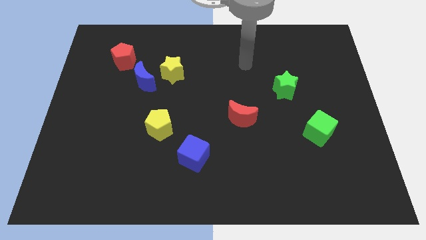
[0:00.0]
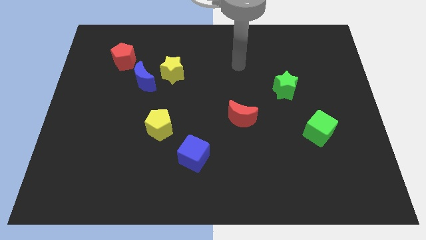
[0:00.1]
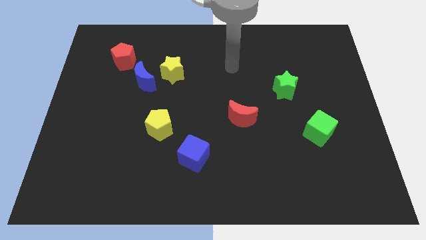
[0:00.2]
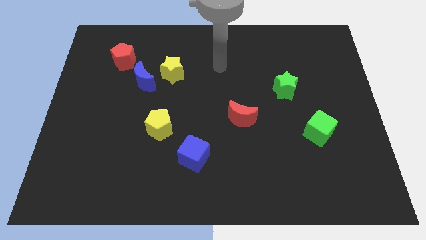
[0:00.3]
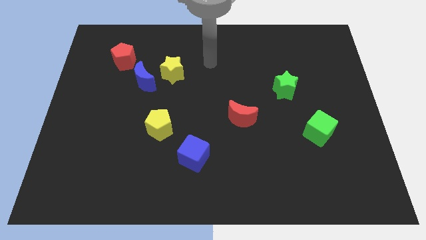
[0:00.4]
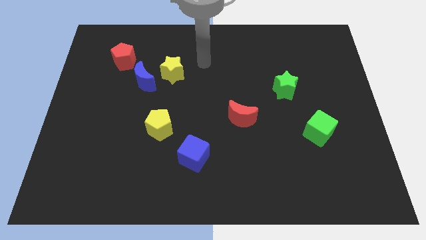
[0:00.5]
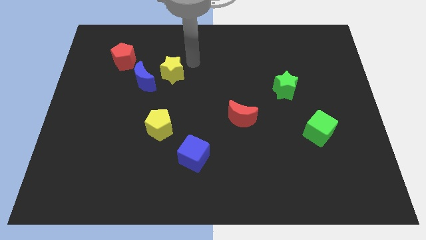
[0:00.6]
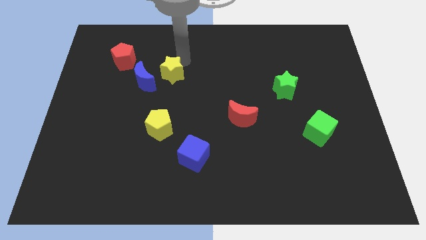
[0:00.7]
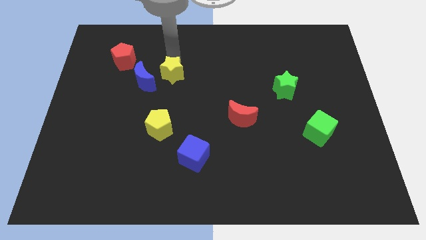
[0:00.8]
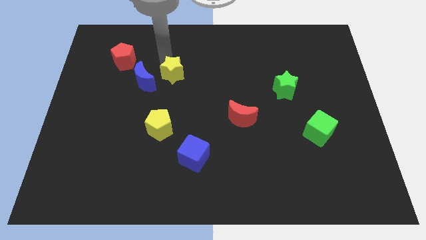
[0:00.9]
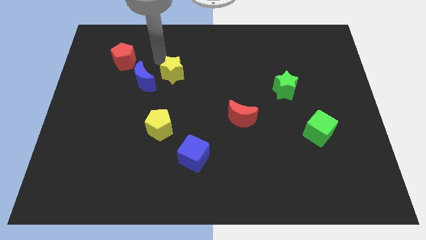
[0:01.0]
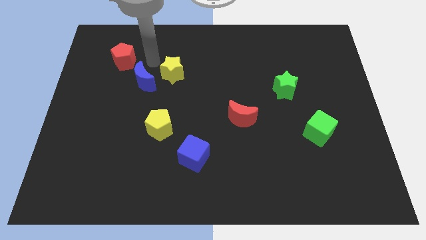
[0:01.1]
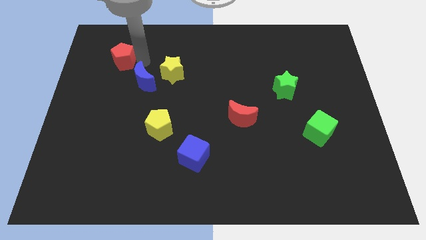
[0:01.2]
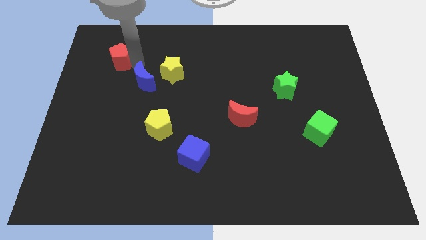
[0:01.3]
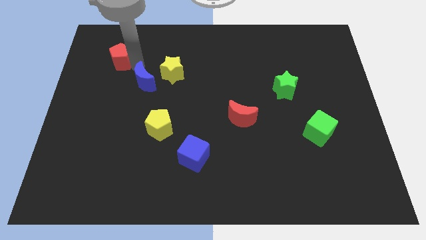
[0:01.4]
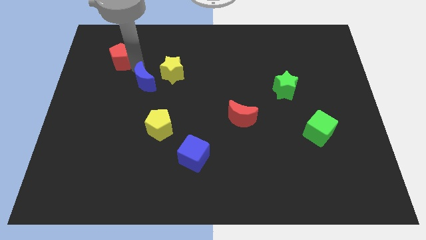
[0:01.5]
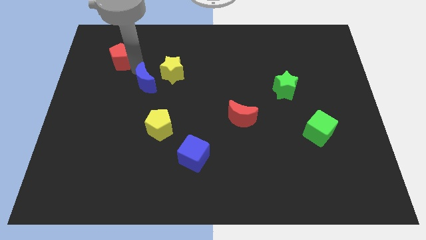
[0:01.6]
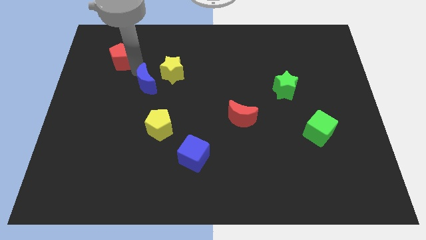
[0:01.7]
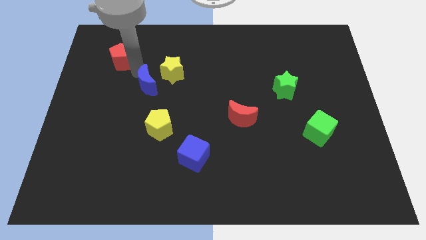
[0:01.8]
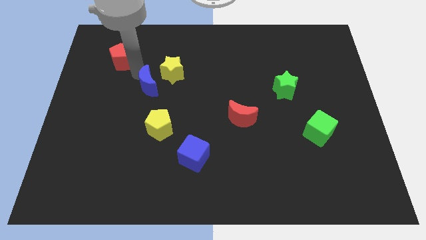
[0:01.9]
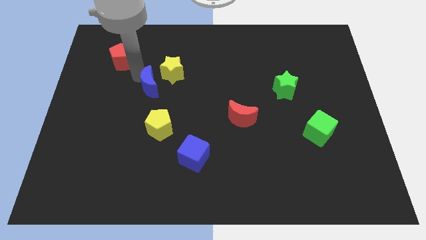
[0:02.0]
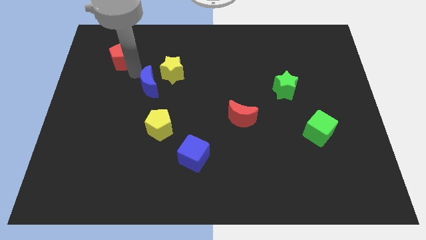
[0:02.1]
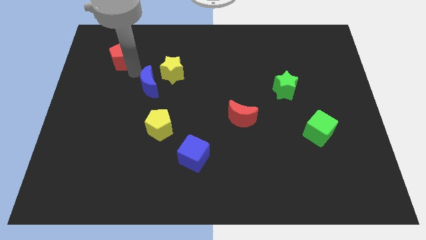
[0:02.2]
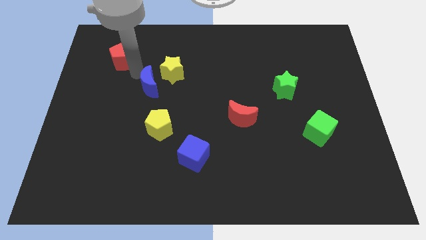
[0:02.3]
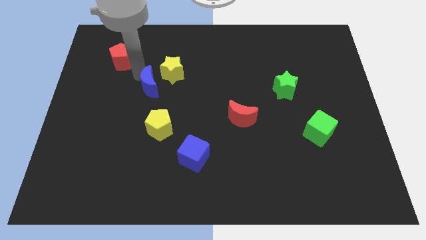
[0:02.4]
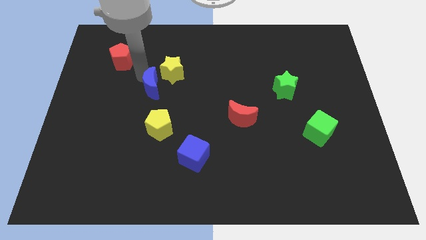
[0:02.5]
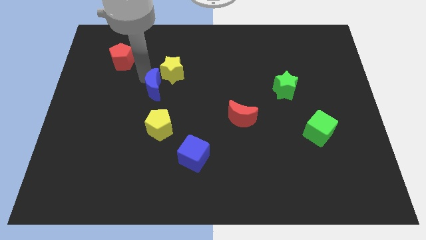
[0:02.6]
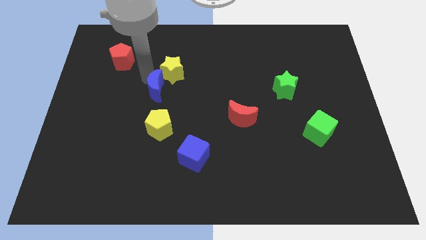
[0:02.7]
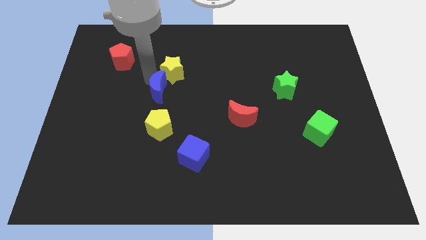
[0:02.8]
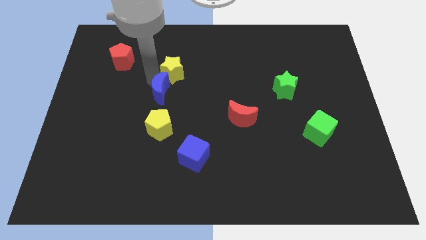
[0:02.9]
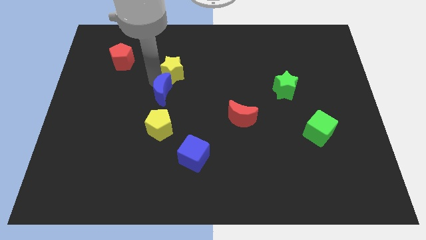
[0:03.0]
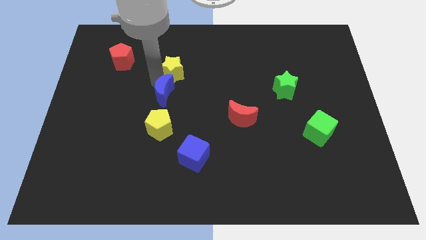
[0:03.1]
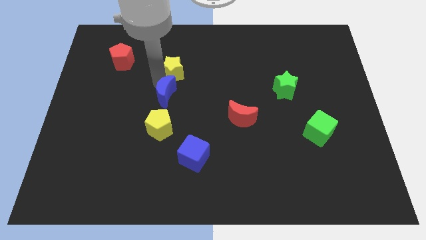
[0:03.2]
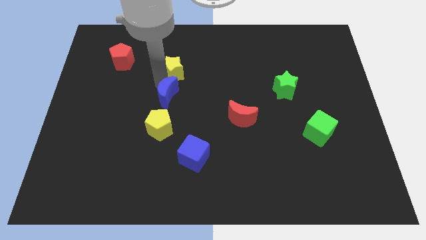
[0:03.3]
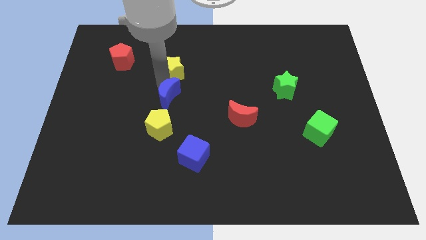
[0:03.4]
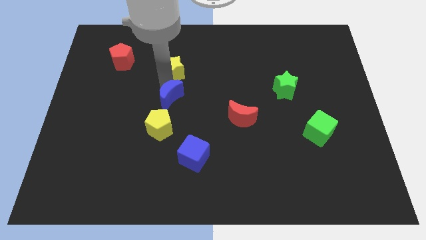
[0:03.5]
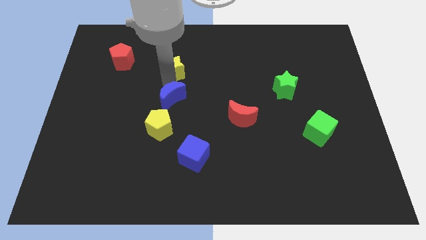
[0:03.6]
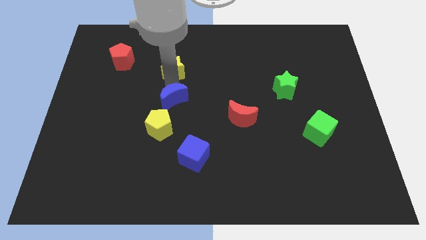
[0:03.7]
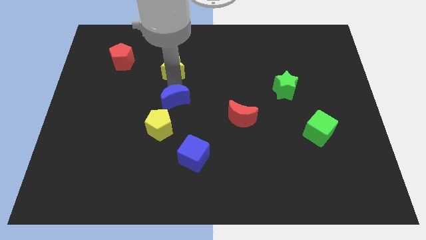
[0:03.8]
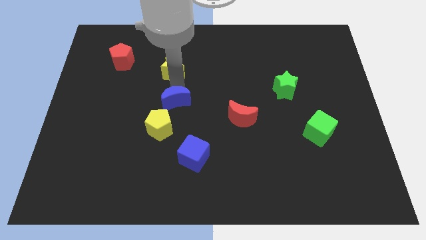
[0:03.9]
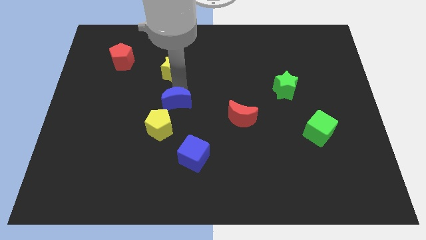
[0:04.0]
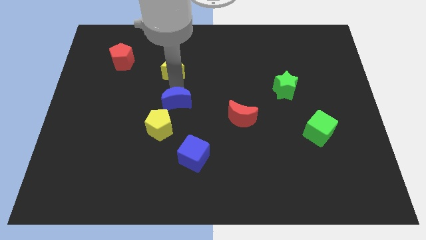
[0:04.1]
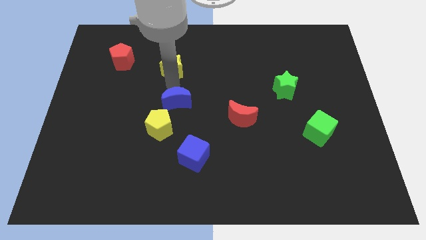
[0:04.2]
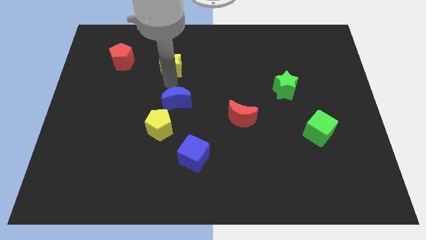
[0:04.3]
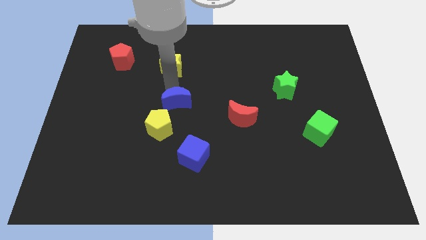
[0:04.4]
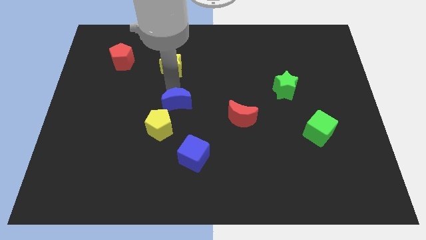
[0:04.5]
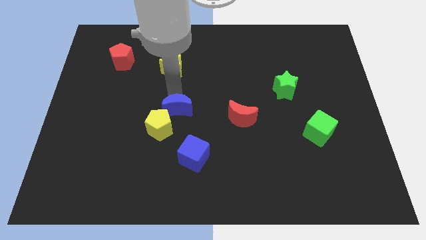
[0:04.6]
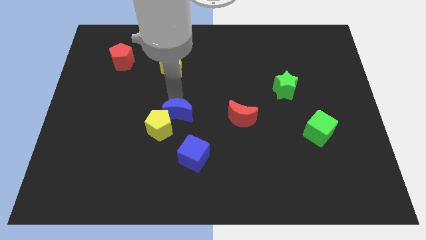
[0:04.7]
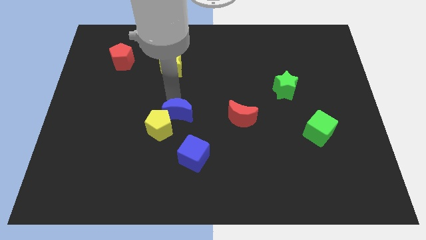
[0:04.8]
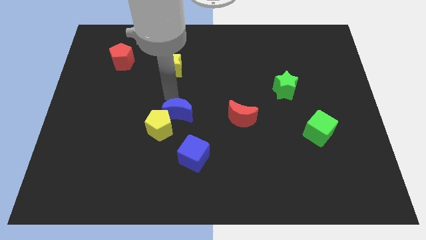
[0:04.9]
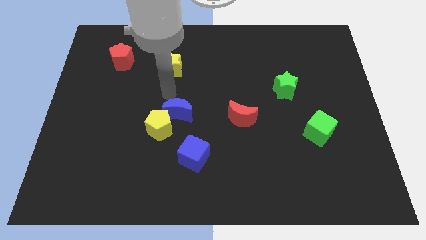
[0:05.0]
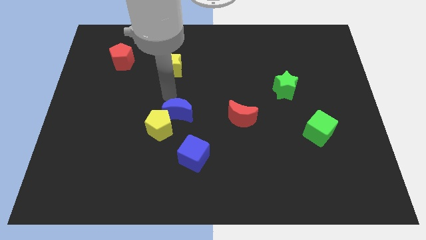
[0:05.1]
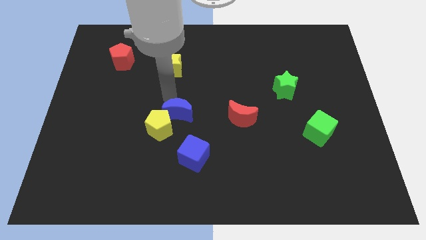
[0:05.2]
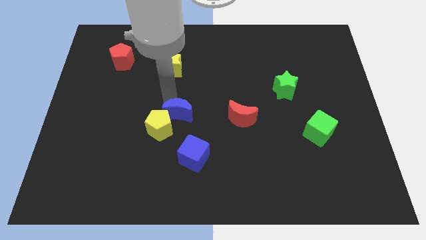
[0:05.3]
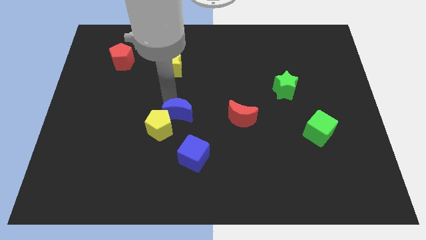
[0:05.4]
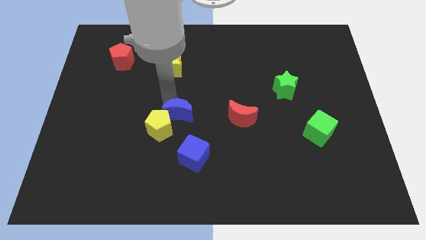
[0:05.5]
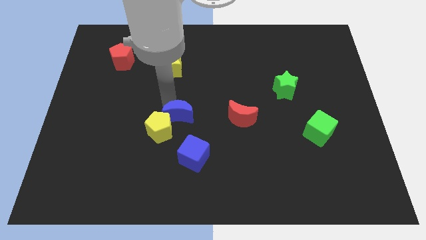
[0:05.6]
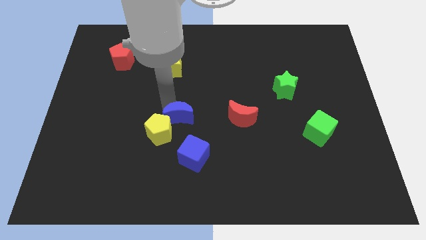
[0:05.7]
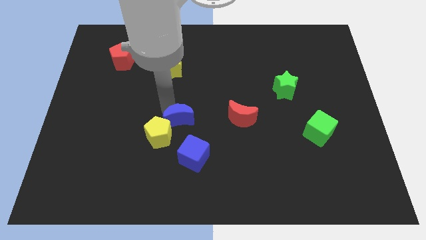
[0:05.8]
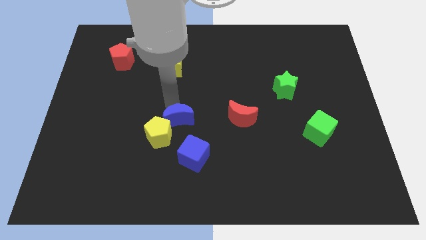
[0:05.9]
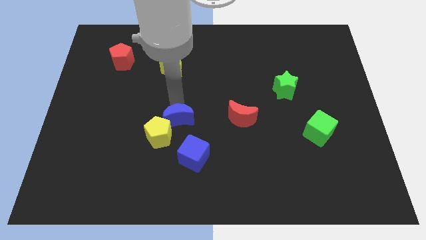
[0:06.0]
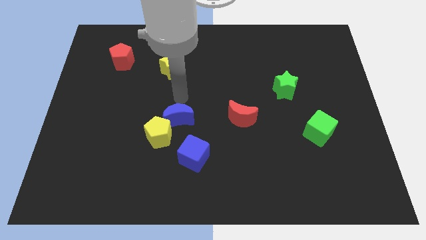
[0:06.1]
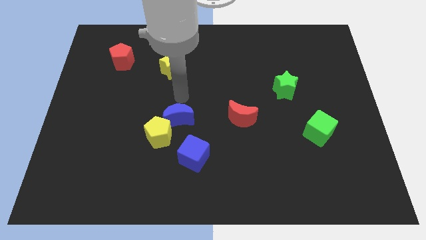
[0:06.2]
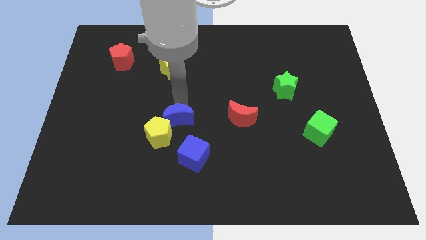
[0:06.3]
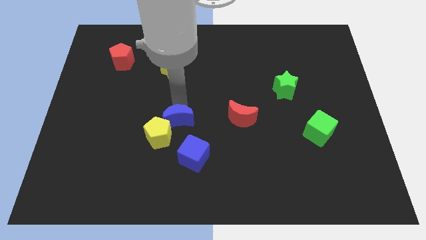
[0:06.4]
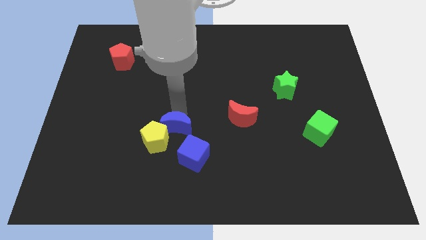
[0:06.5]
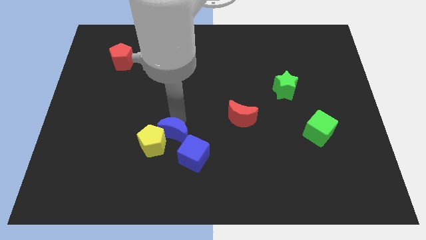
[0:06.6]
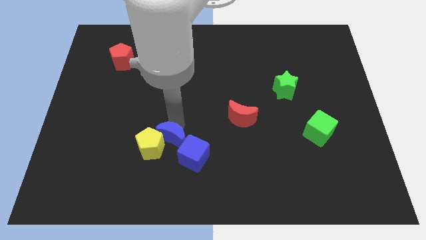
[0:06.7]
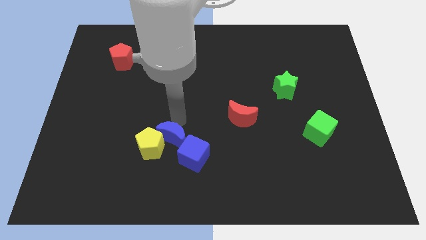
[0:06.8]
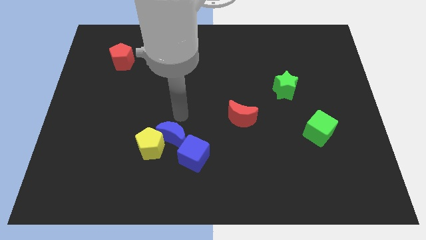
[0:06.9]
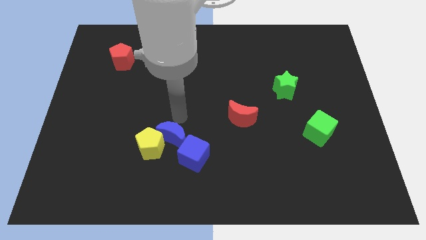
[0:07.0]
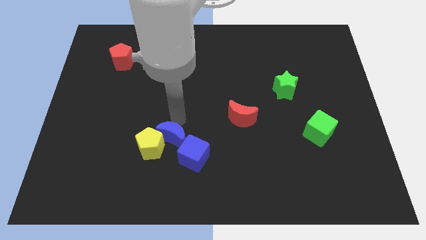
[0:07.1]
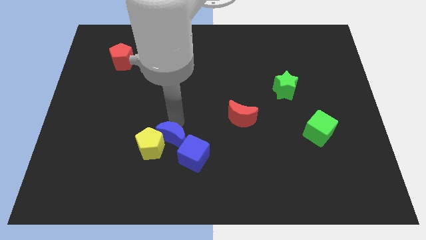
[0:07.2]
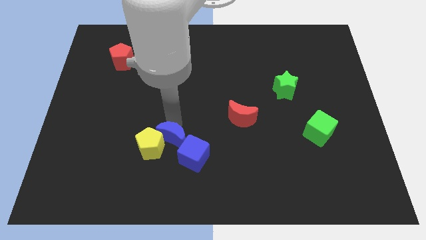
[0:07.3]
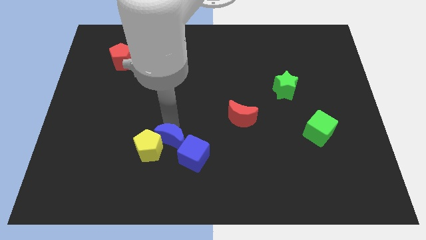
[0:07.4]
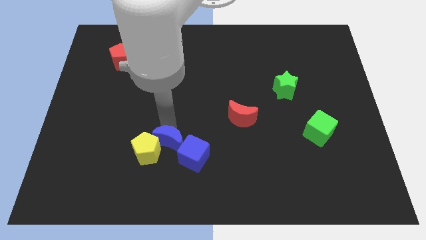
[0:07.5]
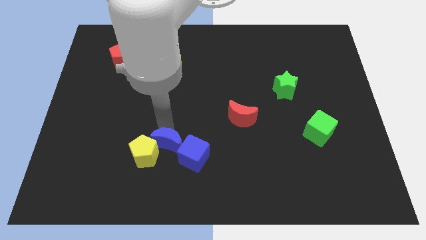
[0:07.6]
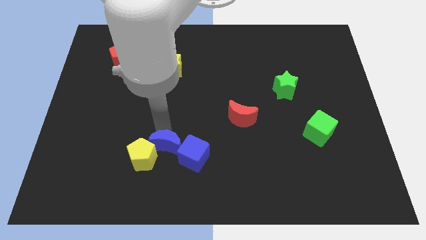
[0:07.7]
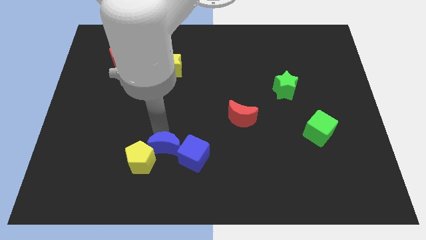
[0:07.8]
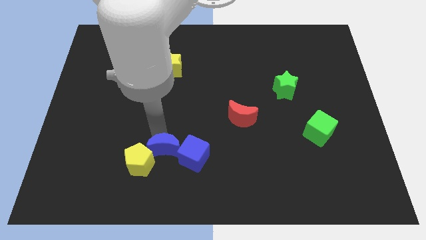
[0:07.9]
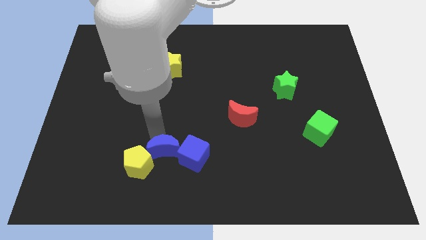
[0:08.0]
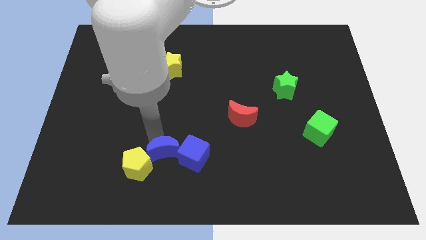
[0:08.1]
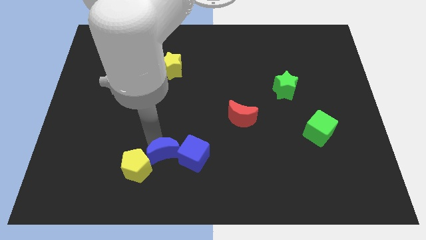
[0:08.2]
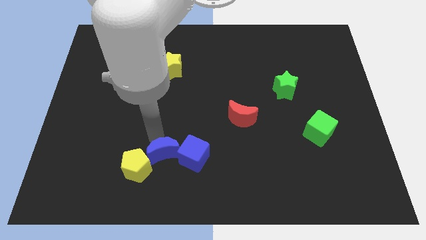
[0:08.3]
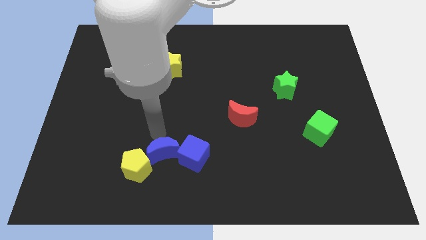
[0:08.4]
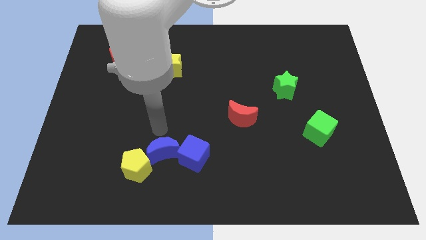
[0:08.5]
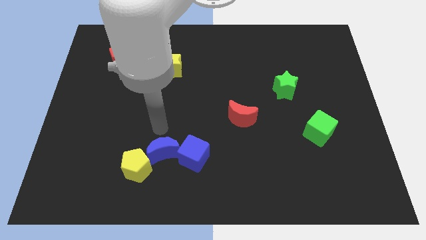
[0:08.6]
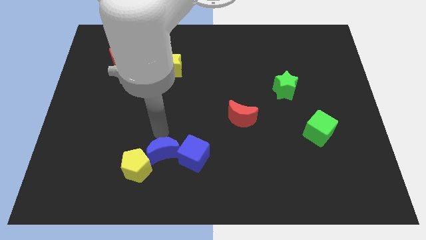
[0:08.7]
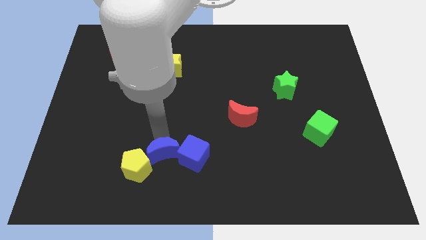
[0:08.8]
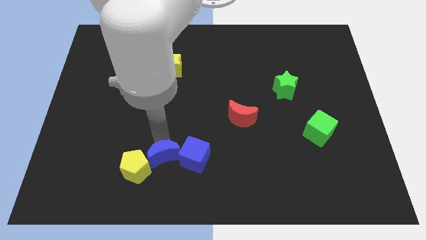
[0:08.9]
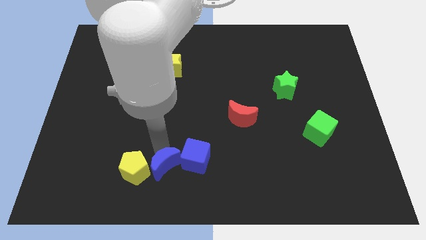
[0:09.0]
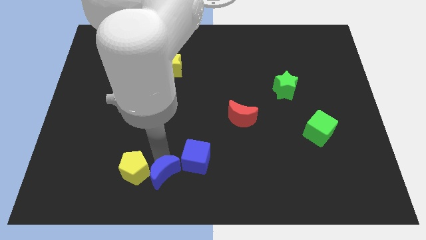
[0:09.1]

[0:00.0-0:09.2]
put the blue moon to the bottom
